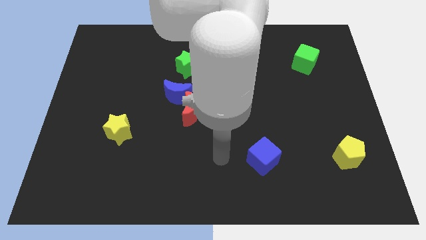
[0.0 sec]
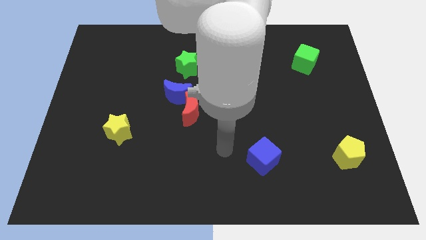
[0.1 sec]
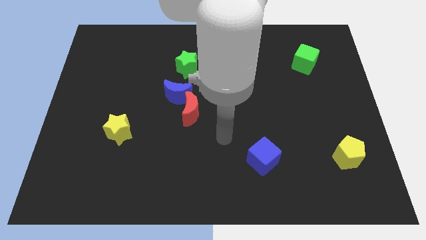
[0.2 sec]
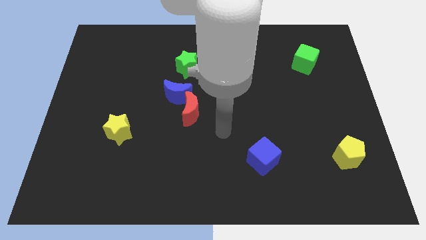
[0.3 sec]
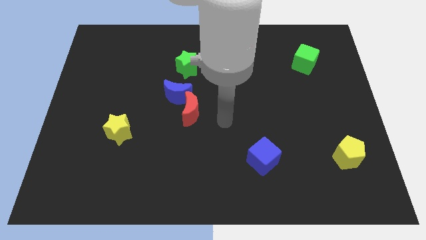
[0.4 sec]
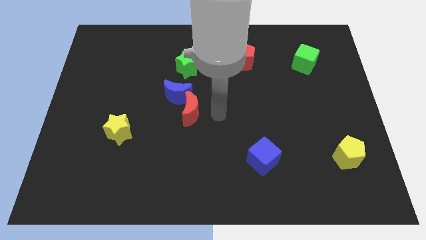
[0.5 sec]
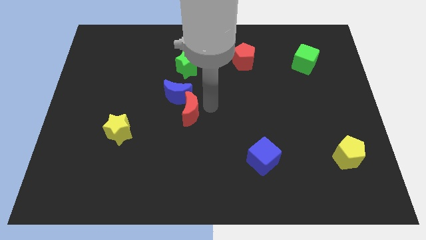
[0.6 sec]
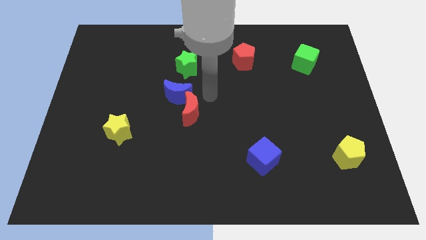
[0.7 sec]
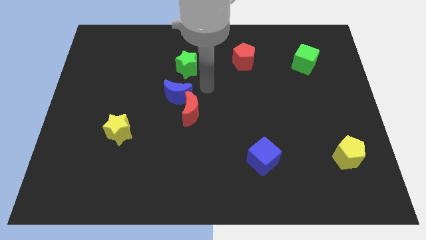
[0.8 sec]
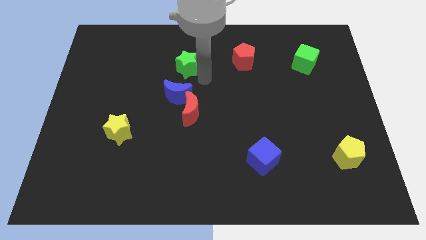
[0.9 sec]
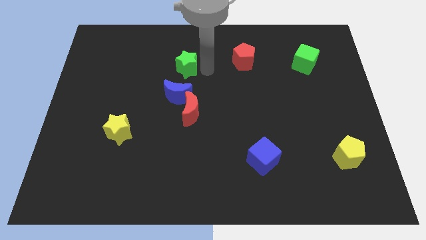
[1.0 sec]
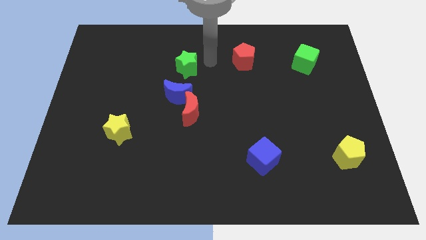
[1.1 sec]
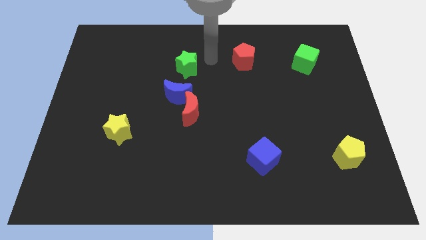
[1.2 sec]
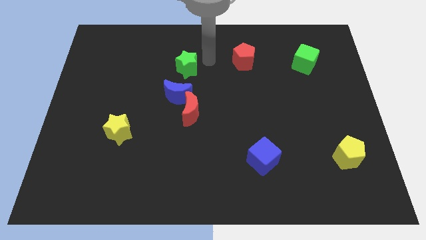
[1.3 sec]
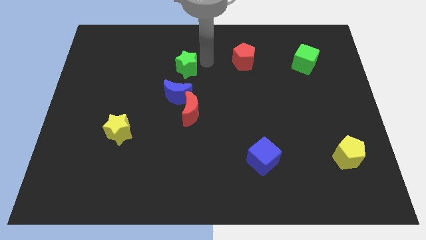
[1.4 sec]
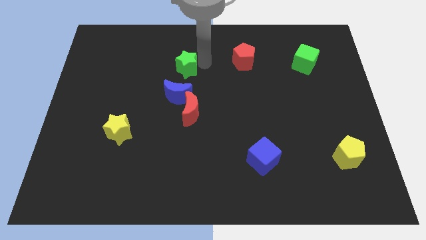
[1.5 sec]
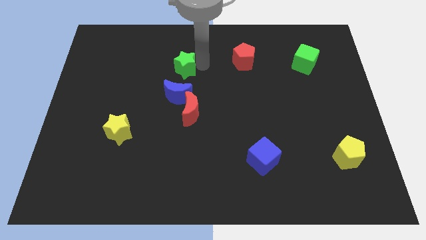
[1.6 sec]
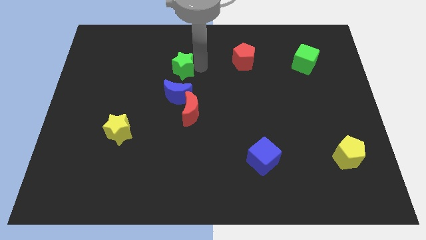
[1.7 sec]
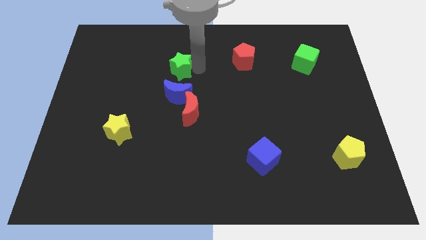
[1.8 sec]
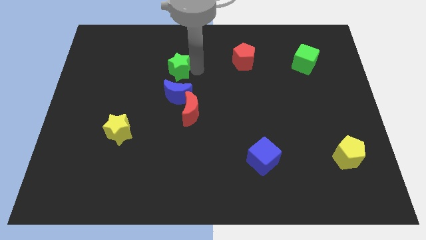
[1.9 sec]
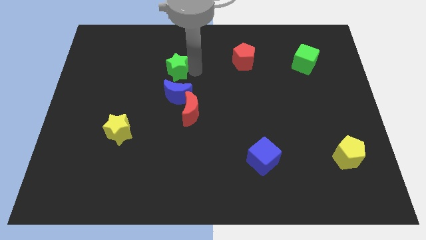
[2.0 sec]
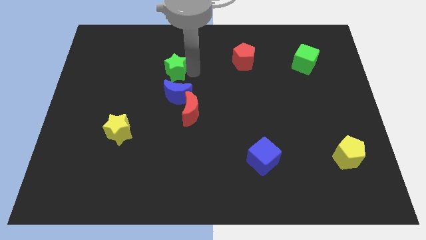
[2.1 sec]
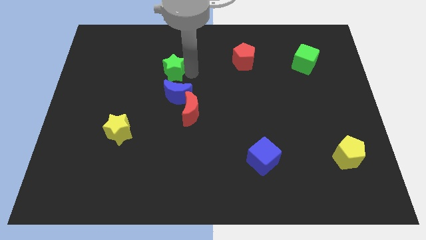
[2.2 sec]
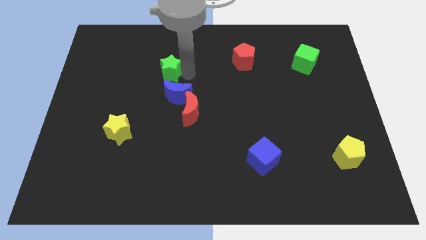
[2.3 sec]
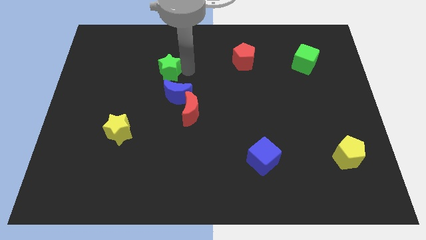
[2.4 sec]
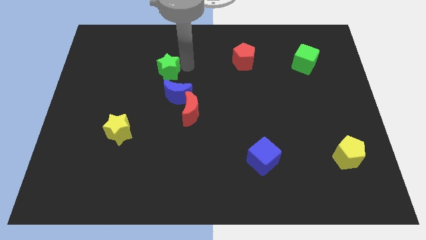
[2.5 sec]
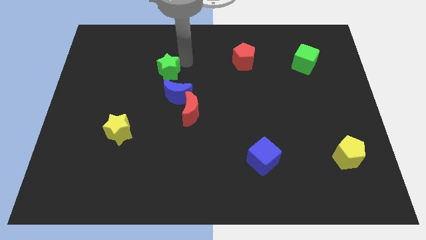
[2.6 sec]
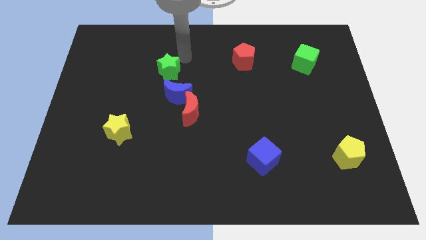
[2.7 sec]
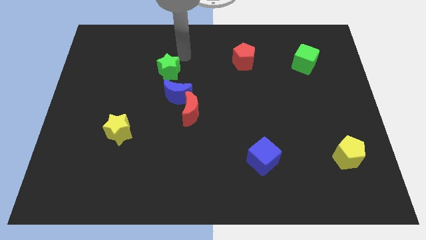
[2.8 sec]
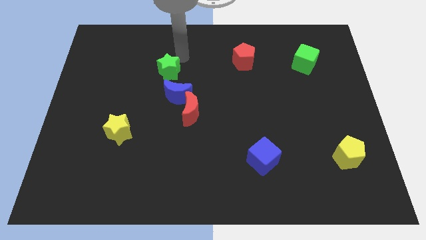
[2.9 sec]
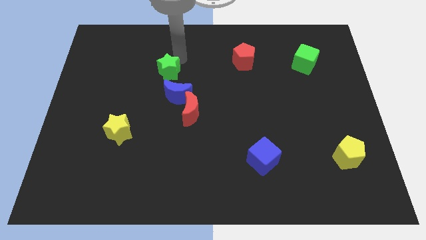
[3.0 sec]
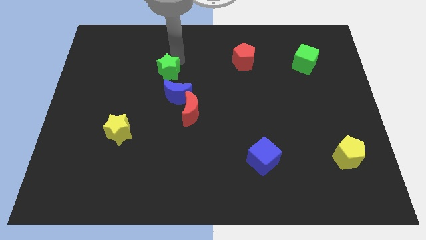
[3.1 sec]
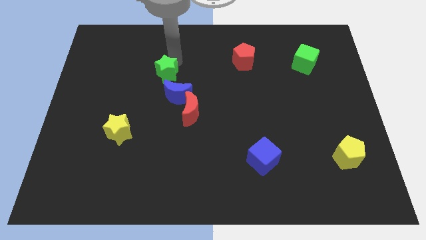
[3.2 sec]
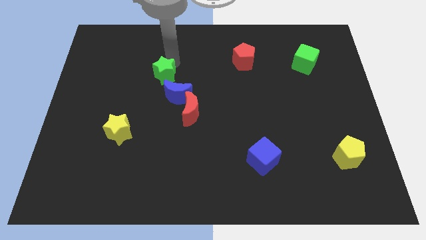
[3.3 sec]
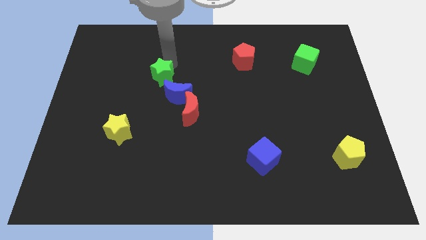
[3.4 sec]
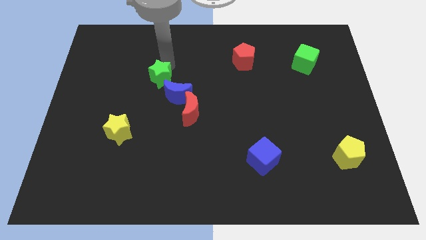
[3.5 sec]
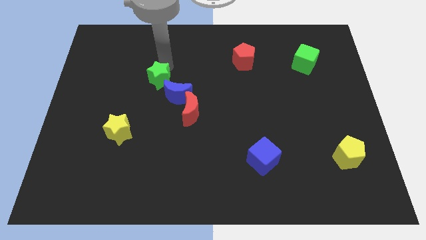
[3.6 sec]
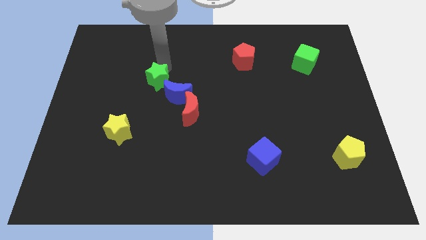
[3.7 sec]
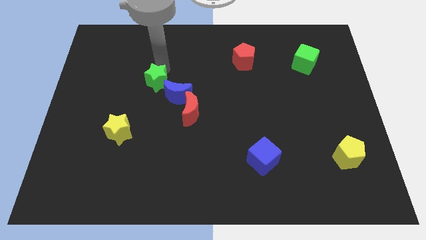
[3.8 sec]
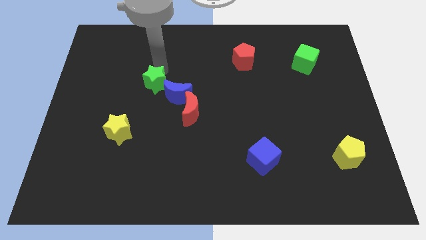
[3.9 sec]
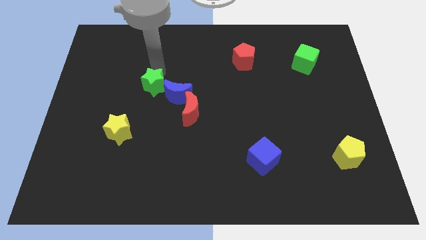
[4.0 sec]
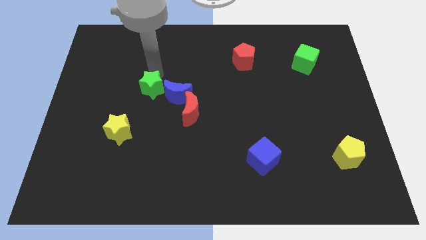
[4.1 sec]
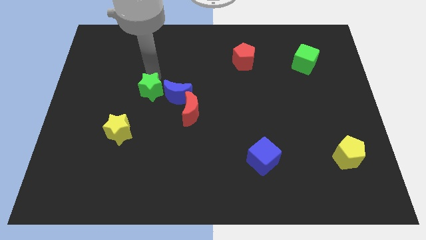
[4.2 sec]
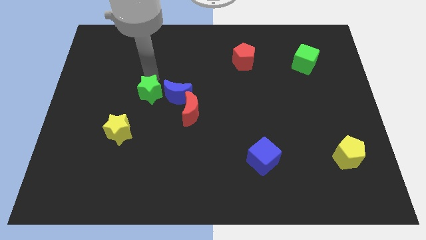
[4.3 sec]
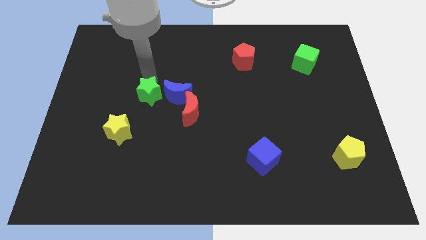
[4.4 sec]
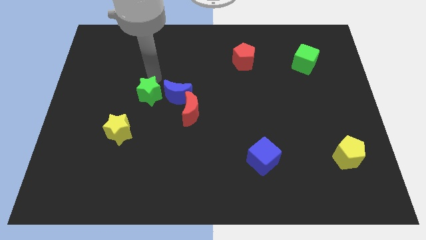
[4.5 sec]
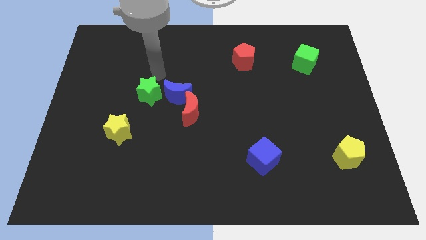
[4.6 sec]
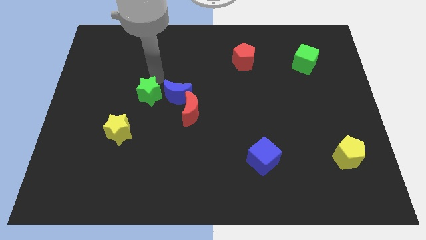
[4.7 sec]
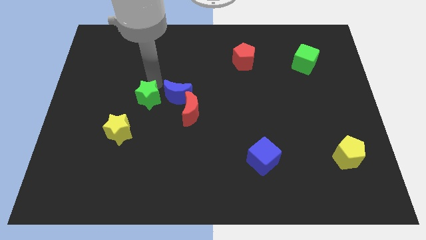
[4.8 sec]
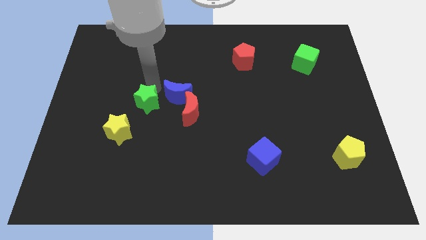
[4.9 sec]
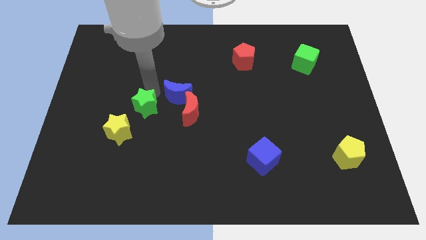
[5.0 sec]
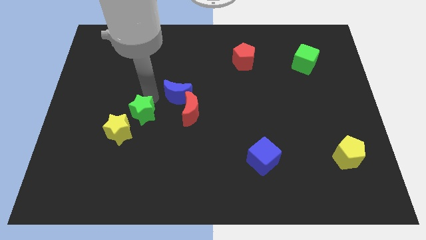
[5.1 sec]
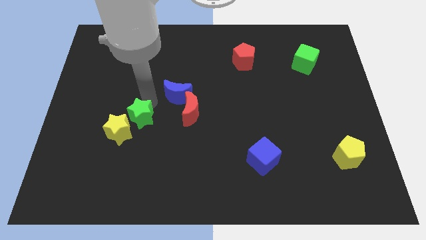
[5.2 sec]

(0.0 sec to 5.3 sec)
move the green star next to the yellow star

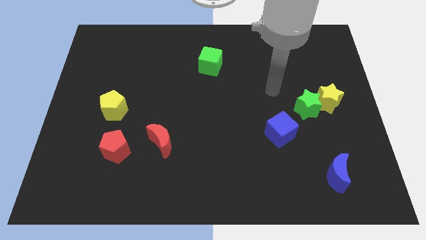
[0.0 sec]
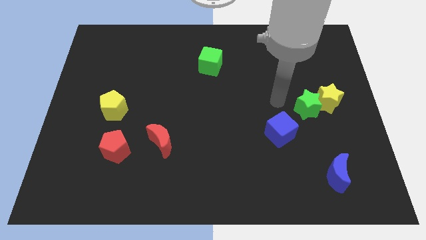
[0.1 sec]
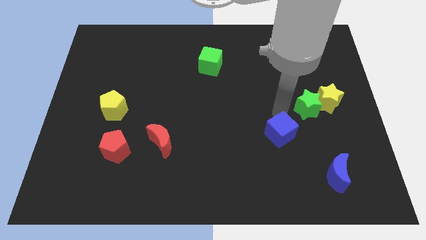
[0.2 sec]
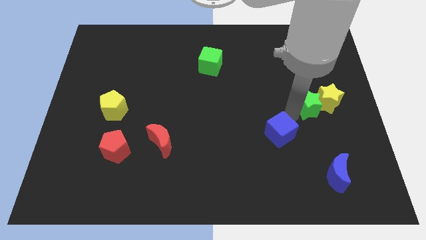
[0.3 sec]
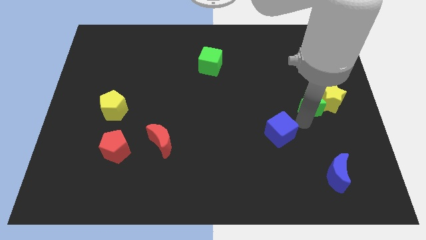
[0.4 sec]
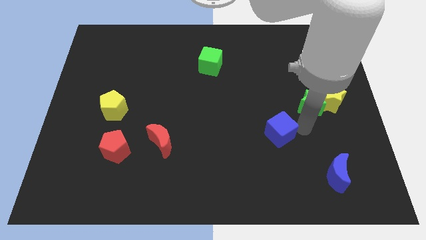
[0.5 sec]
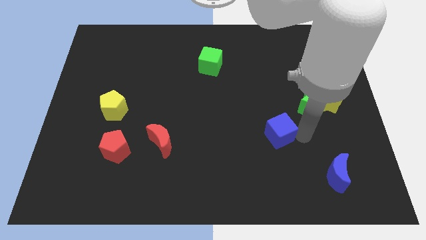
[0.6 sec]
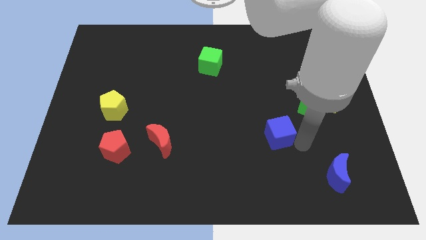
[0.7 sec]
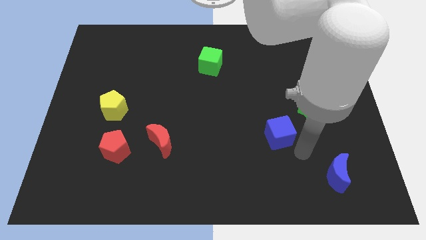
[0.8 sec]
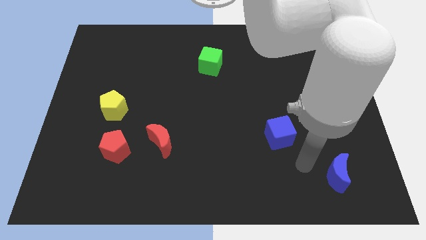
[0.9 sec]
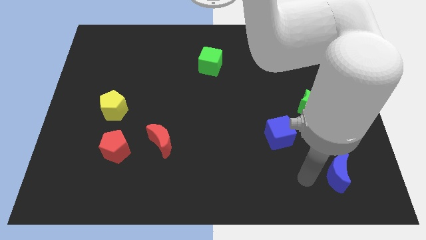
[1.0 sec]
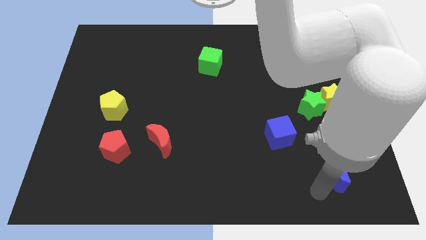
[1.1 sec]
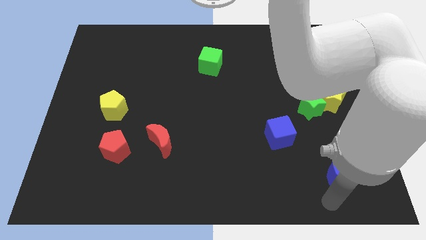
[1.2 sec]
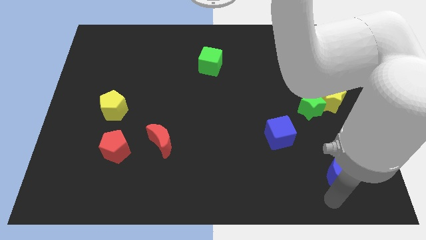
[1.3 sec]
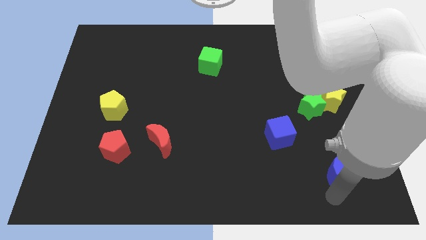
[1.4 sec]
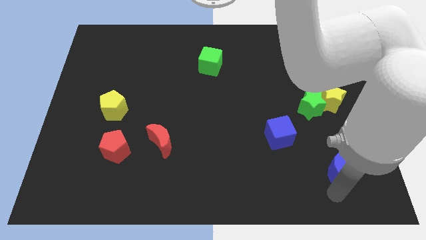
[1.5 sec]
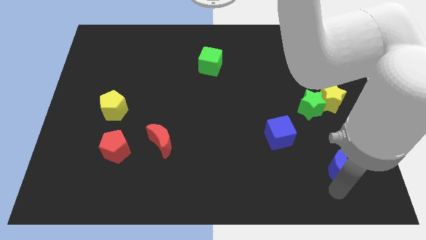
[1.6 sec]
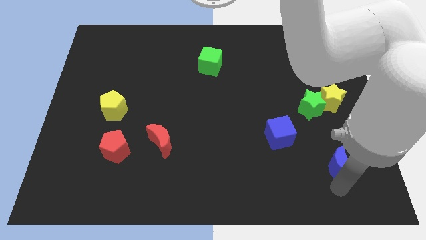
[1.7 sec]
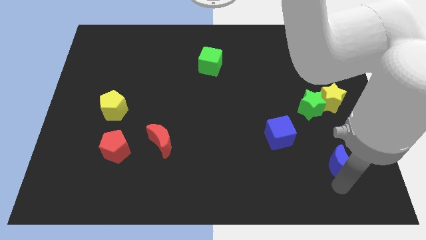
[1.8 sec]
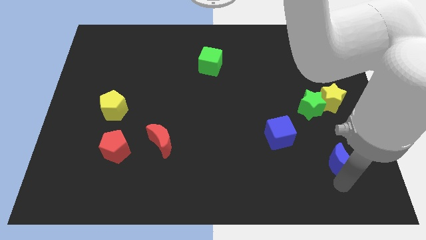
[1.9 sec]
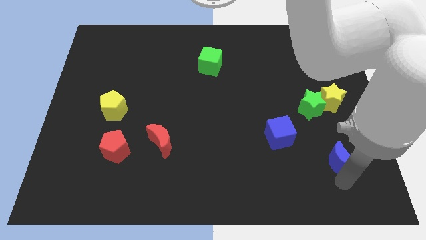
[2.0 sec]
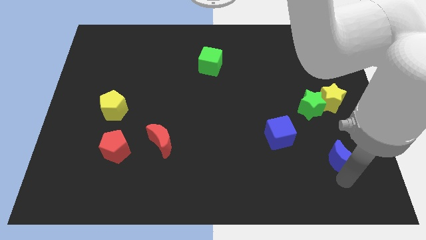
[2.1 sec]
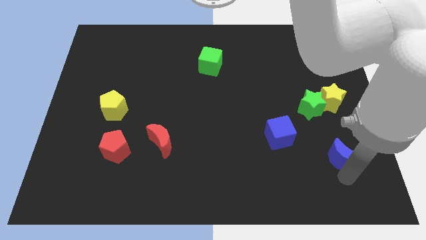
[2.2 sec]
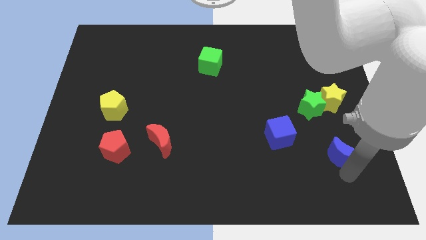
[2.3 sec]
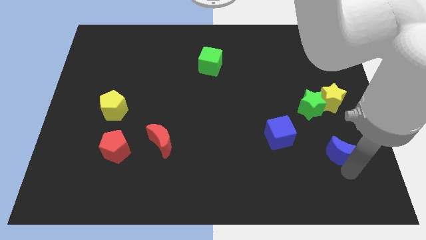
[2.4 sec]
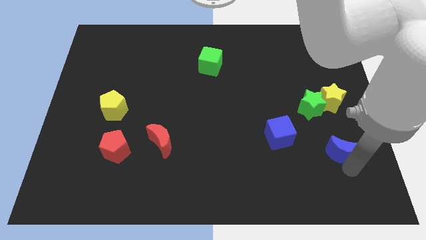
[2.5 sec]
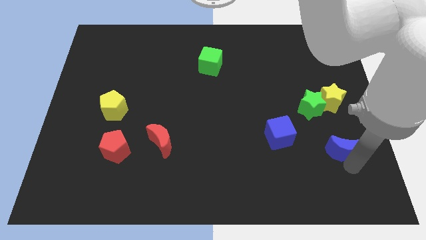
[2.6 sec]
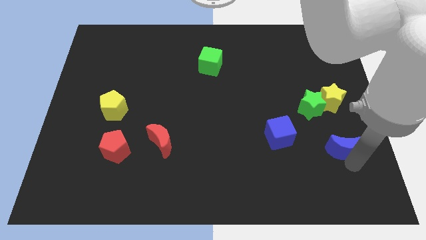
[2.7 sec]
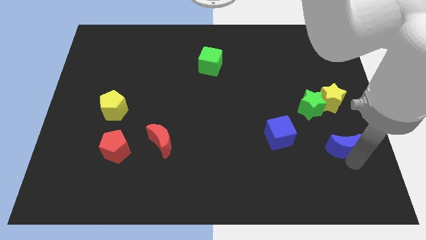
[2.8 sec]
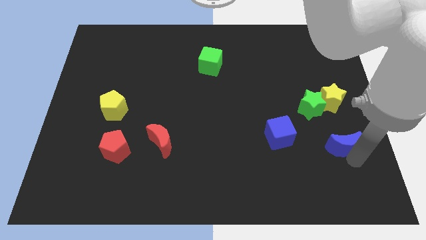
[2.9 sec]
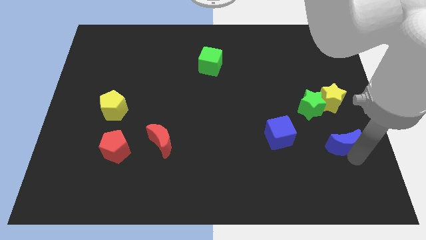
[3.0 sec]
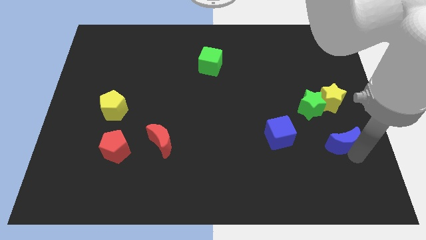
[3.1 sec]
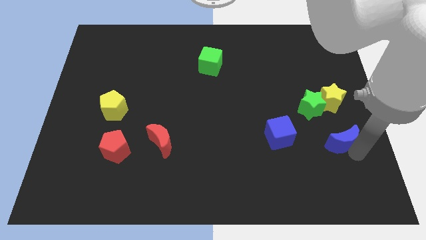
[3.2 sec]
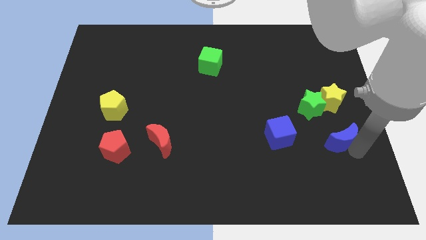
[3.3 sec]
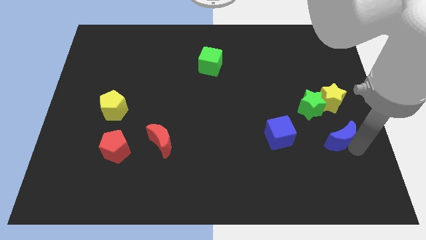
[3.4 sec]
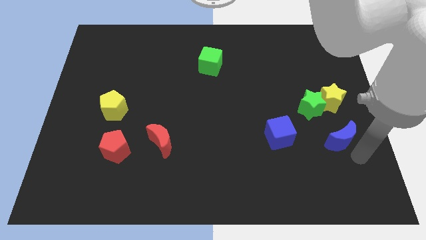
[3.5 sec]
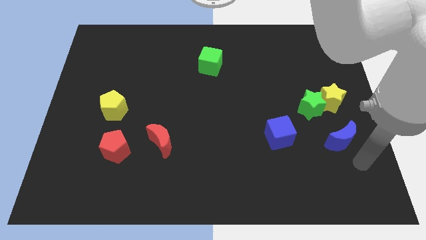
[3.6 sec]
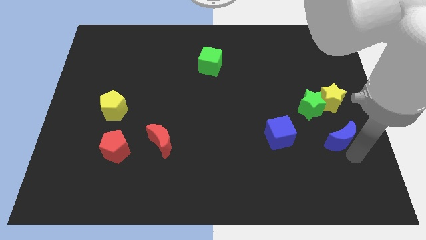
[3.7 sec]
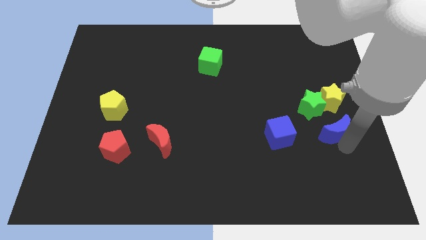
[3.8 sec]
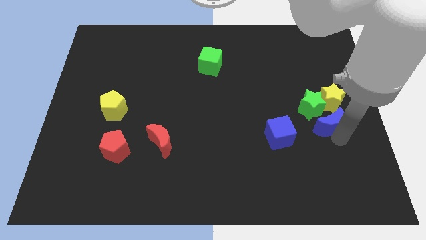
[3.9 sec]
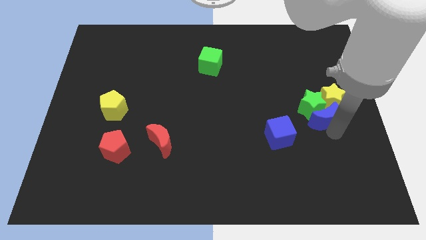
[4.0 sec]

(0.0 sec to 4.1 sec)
slide the blue moon towards the green star
